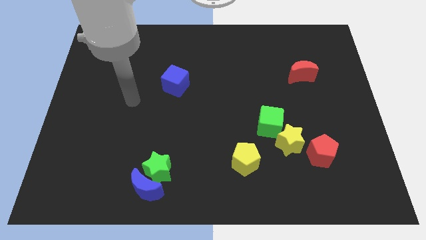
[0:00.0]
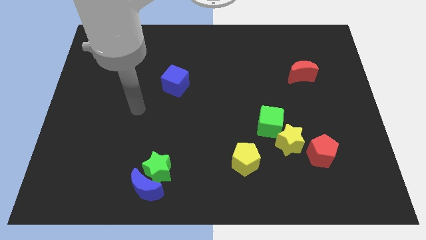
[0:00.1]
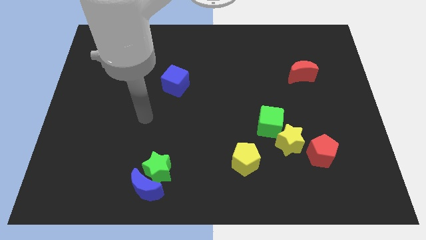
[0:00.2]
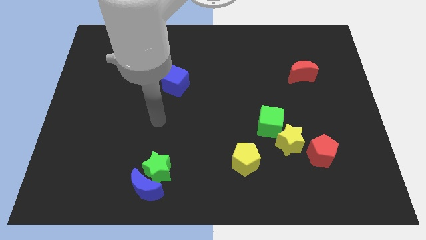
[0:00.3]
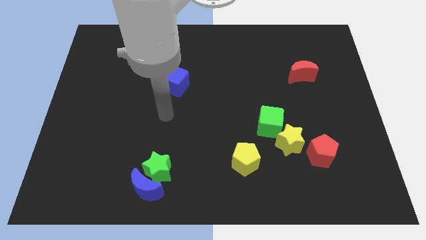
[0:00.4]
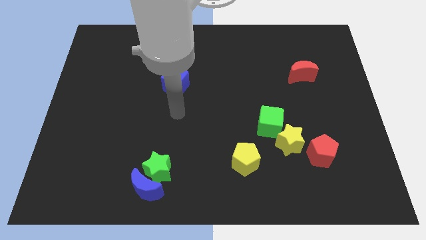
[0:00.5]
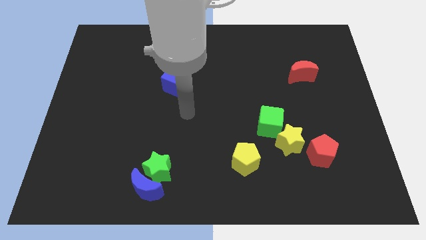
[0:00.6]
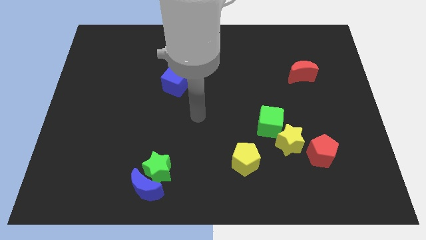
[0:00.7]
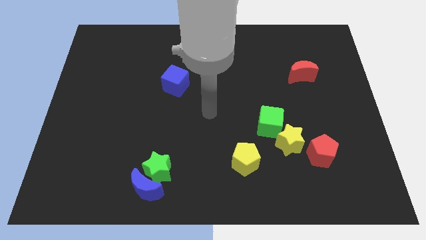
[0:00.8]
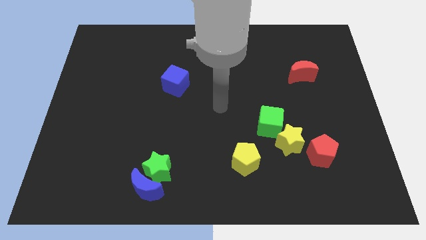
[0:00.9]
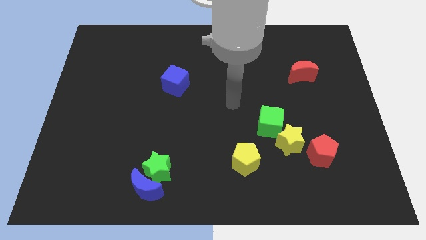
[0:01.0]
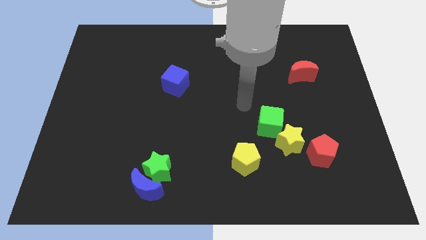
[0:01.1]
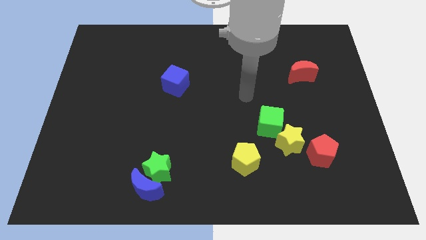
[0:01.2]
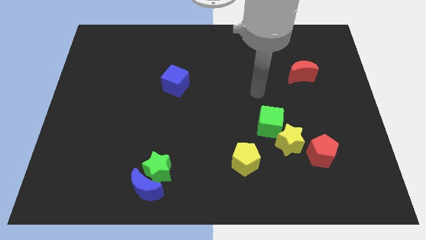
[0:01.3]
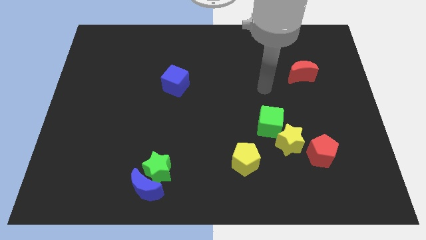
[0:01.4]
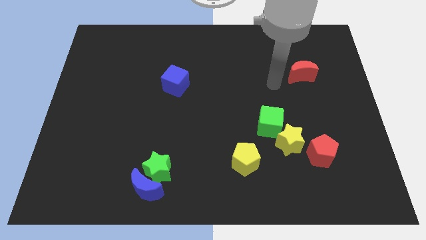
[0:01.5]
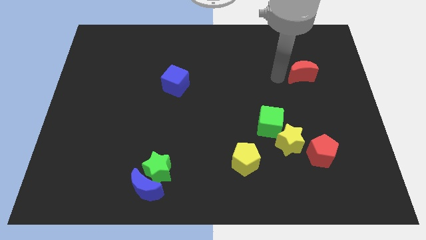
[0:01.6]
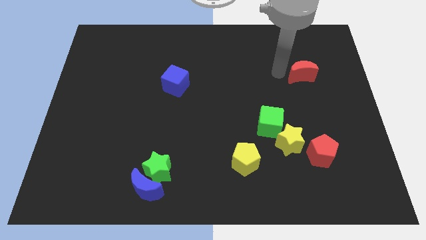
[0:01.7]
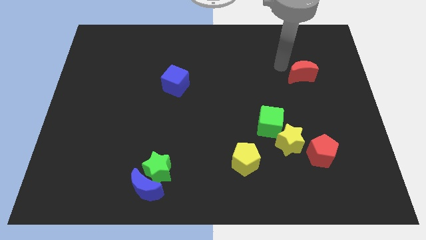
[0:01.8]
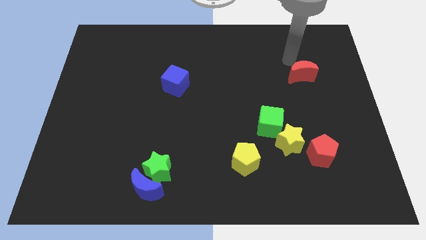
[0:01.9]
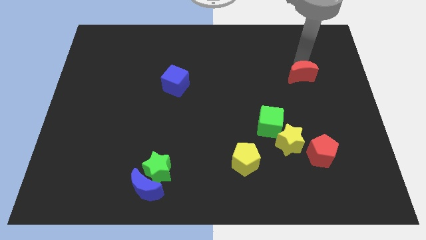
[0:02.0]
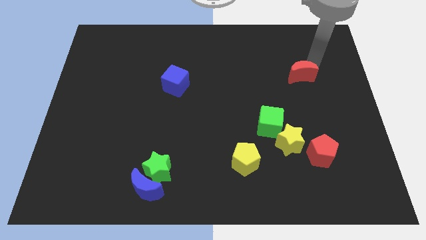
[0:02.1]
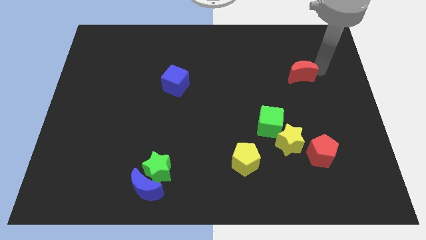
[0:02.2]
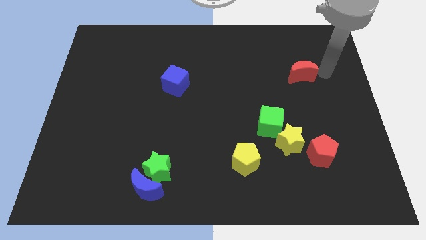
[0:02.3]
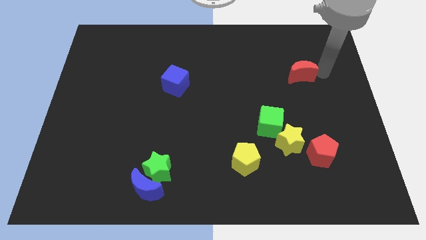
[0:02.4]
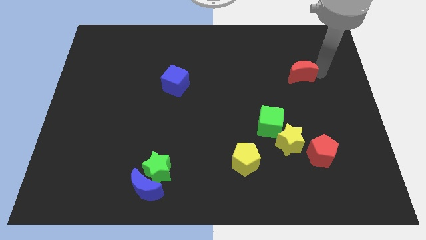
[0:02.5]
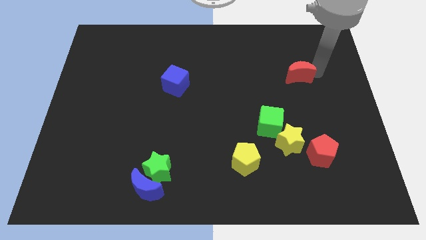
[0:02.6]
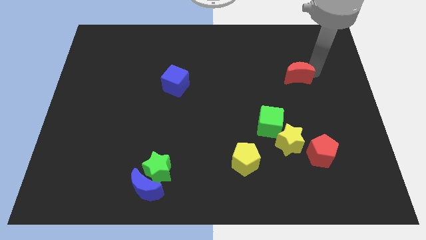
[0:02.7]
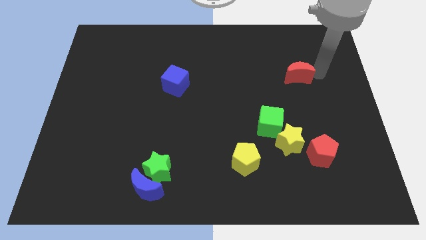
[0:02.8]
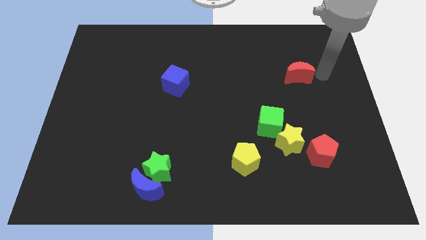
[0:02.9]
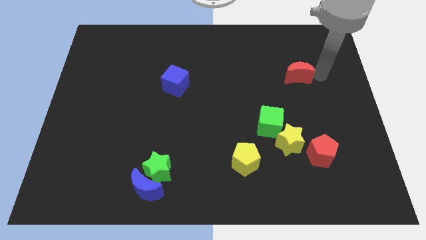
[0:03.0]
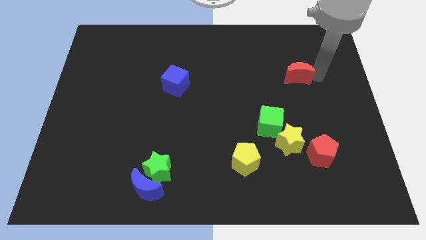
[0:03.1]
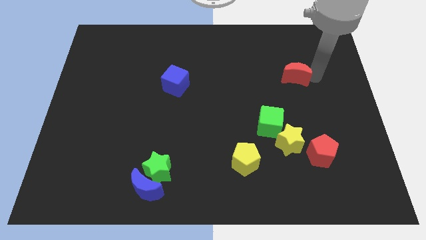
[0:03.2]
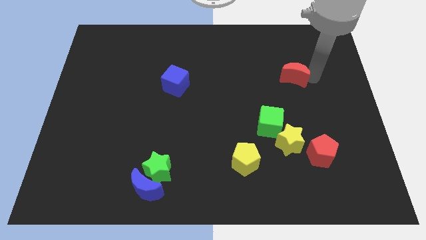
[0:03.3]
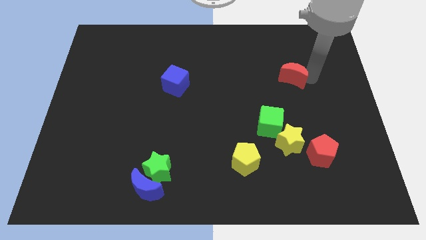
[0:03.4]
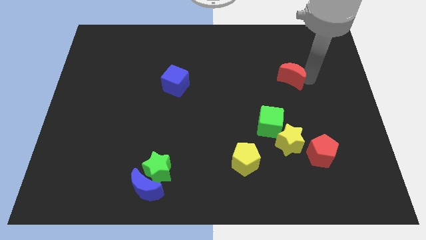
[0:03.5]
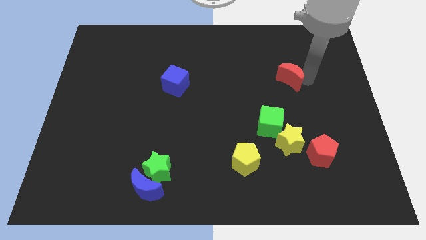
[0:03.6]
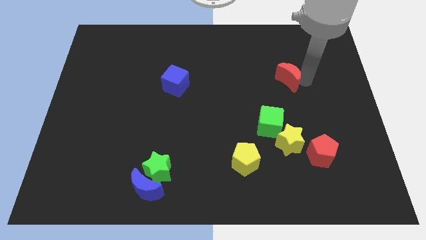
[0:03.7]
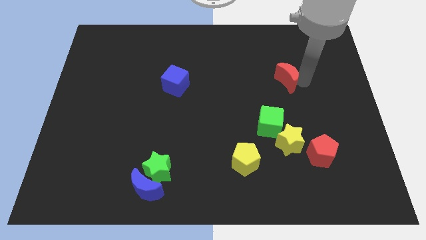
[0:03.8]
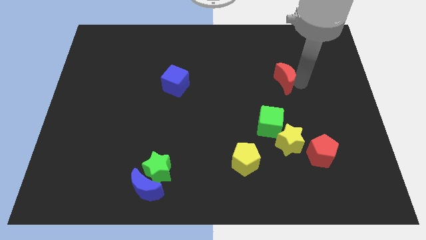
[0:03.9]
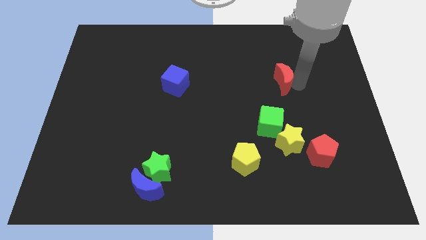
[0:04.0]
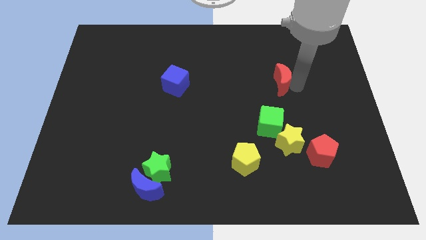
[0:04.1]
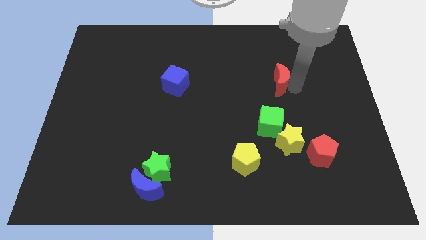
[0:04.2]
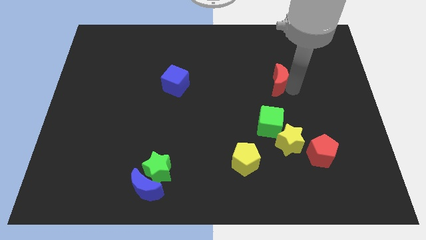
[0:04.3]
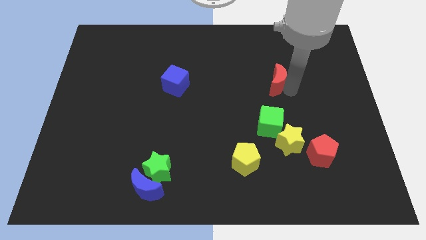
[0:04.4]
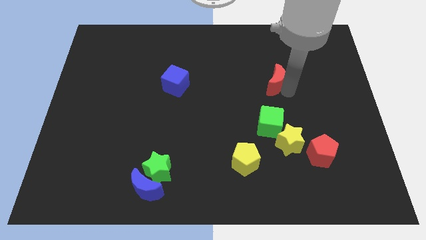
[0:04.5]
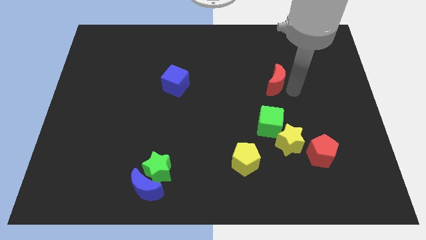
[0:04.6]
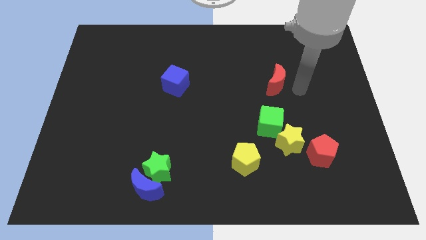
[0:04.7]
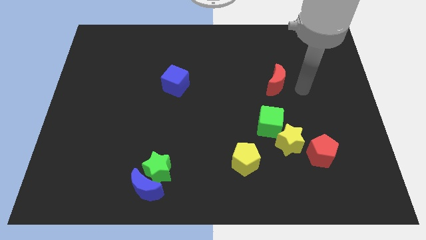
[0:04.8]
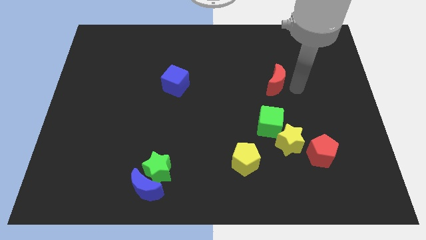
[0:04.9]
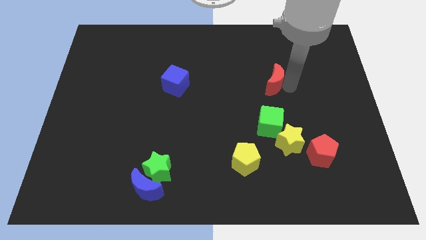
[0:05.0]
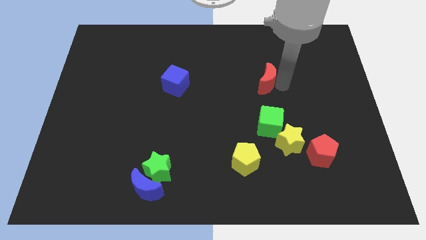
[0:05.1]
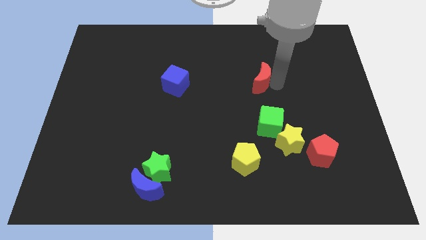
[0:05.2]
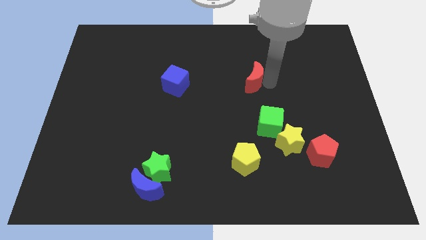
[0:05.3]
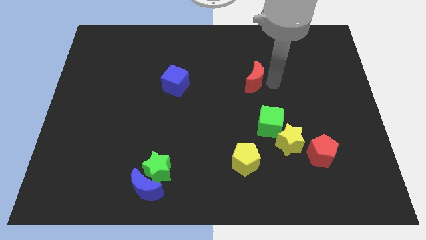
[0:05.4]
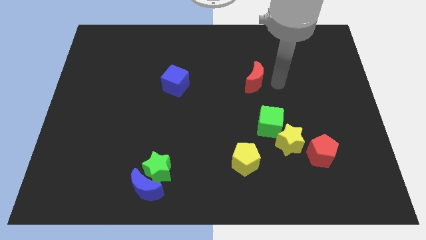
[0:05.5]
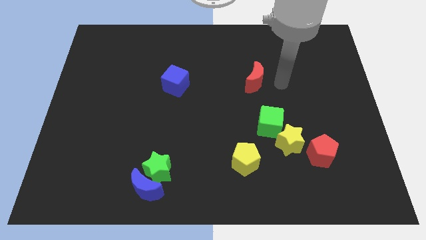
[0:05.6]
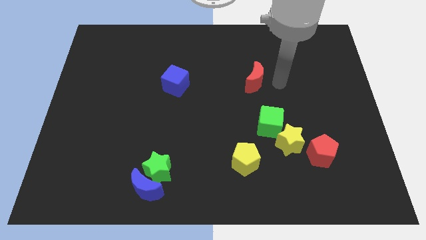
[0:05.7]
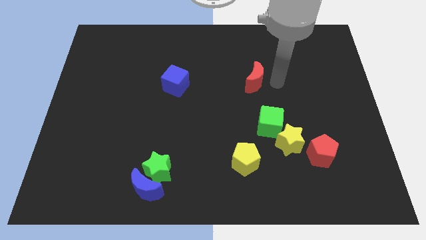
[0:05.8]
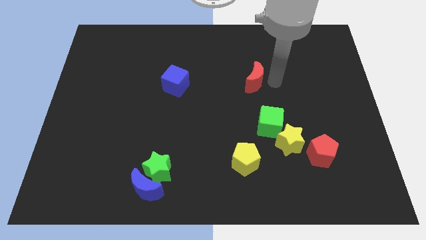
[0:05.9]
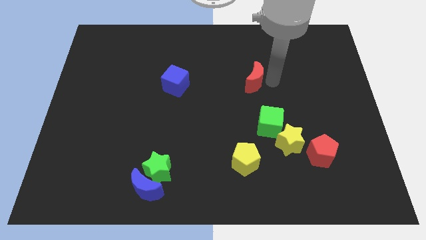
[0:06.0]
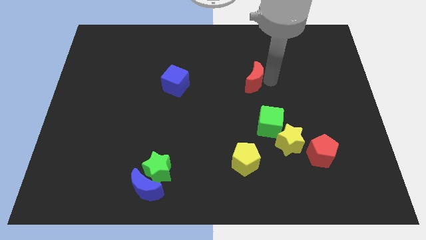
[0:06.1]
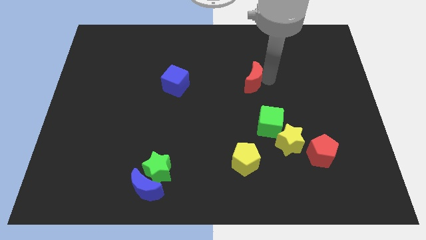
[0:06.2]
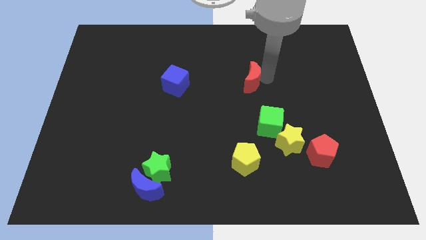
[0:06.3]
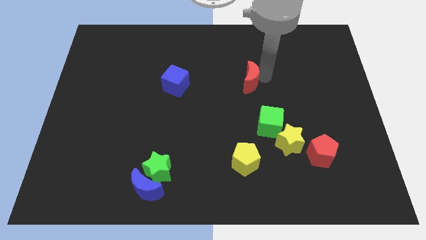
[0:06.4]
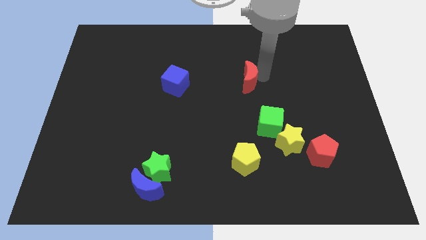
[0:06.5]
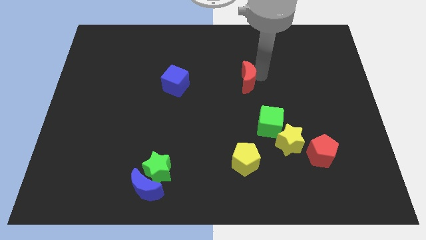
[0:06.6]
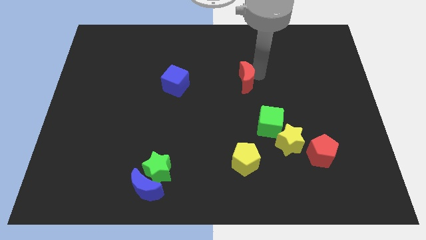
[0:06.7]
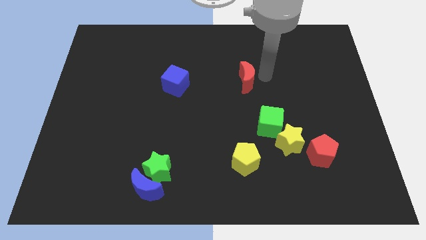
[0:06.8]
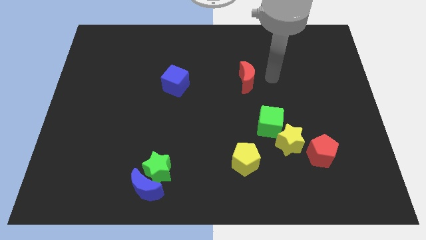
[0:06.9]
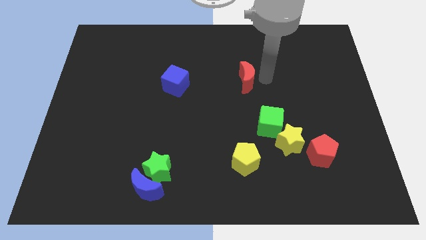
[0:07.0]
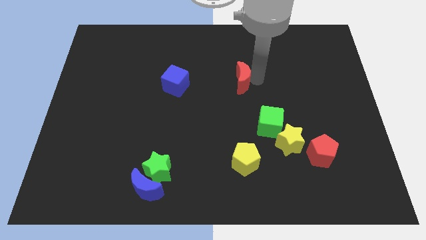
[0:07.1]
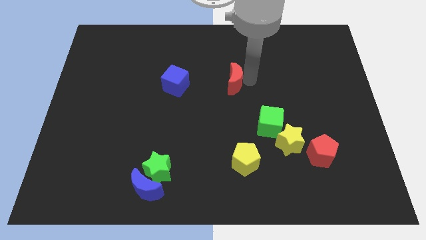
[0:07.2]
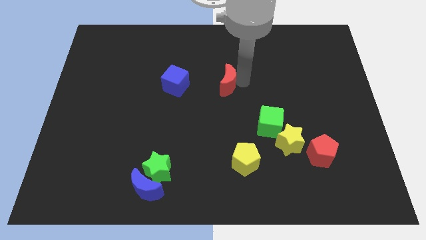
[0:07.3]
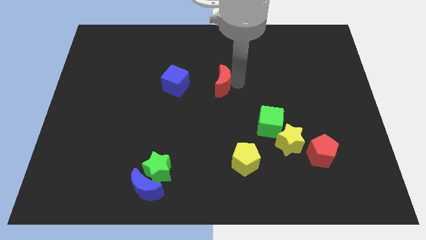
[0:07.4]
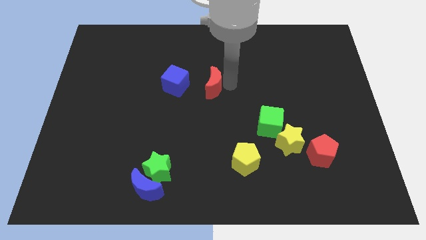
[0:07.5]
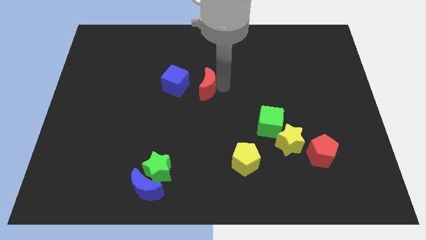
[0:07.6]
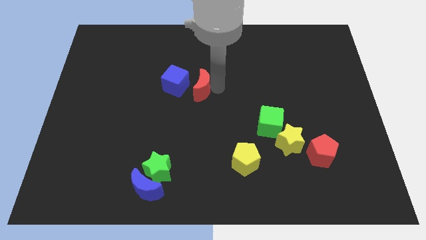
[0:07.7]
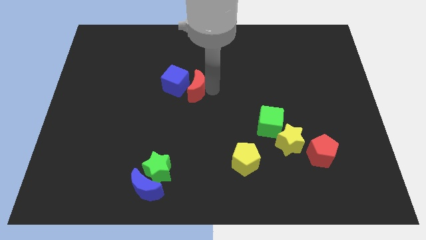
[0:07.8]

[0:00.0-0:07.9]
push the red moon towards the blue cube
